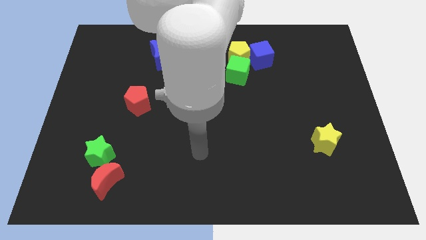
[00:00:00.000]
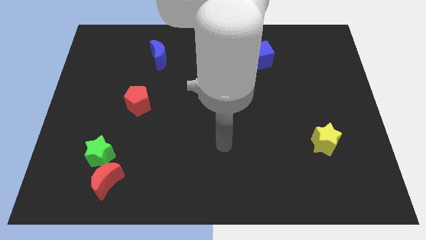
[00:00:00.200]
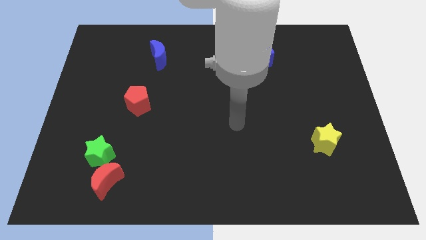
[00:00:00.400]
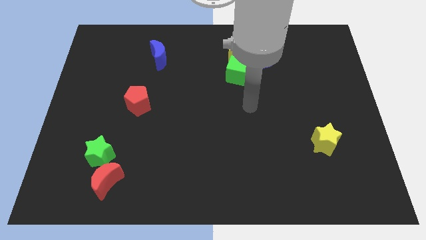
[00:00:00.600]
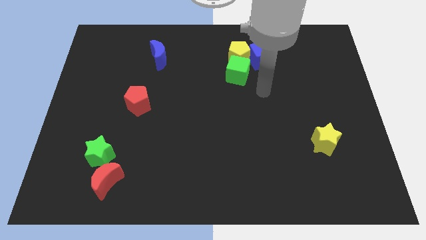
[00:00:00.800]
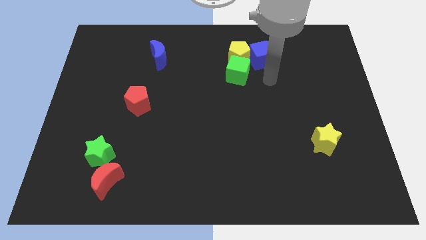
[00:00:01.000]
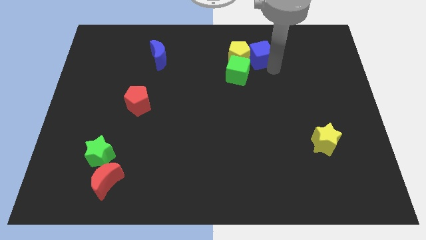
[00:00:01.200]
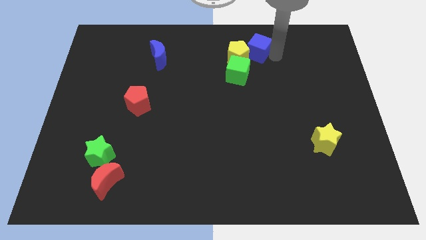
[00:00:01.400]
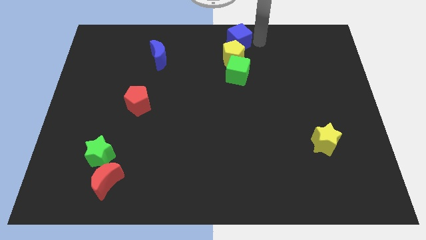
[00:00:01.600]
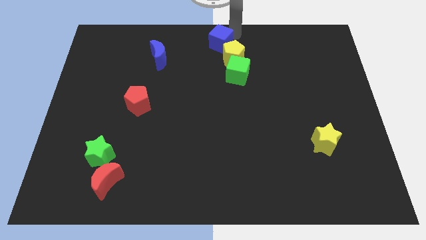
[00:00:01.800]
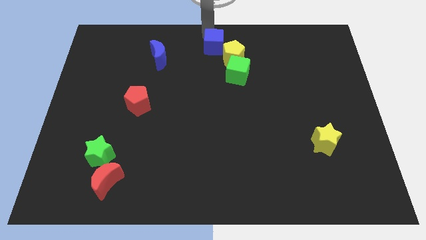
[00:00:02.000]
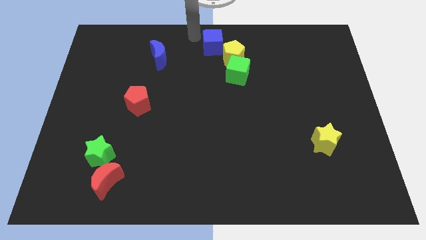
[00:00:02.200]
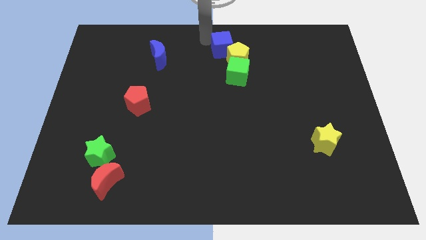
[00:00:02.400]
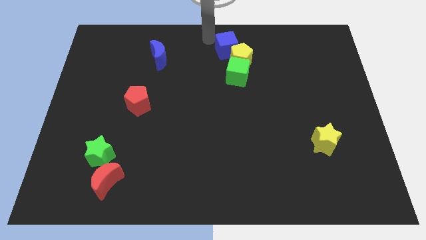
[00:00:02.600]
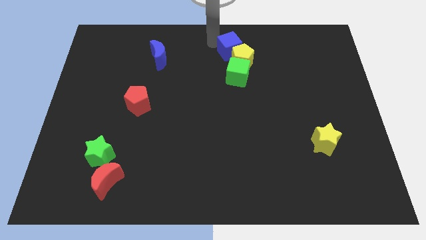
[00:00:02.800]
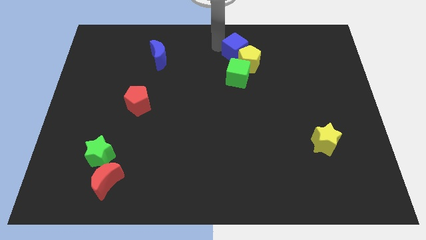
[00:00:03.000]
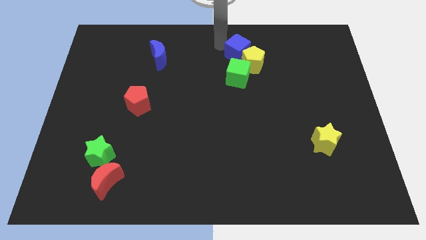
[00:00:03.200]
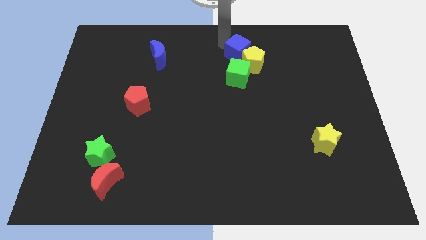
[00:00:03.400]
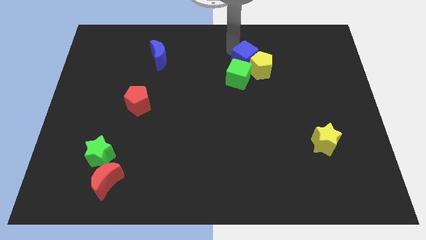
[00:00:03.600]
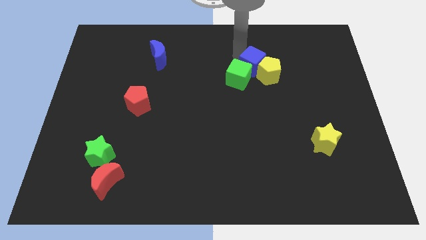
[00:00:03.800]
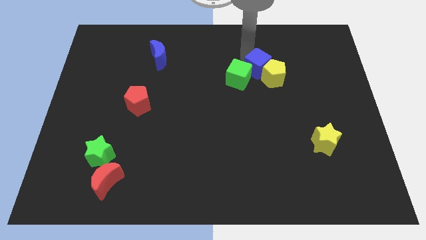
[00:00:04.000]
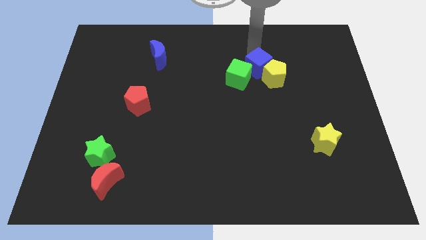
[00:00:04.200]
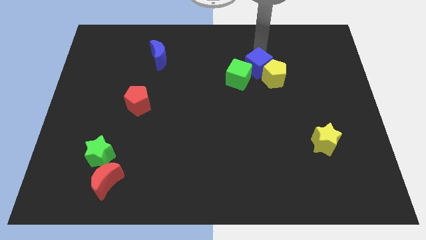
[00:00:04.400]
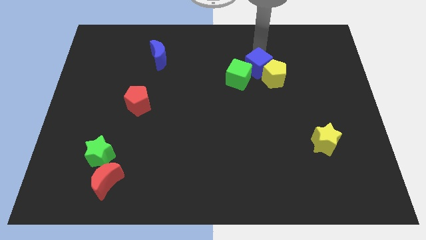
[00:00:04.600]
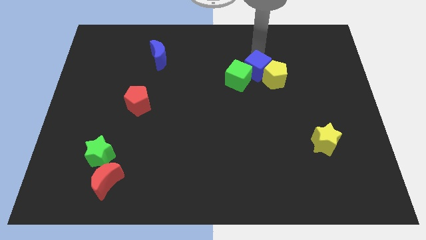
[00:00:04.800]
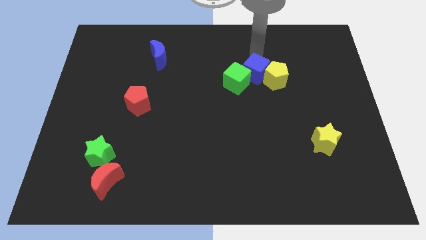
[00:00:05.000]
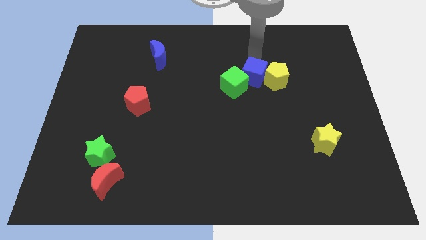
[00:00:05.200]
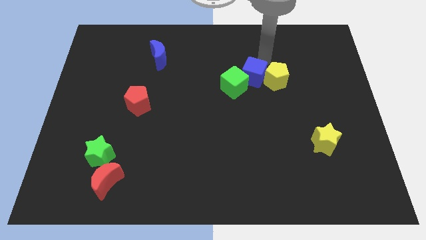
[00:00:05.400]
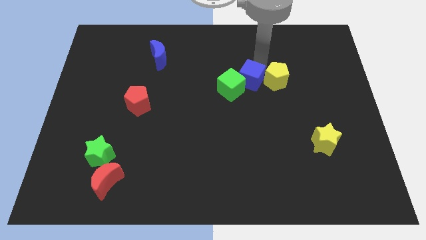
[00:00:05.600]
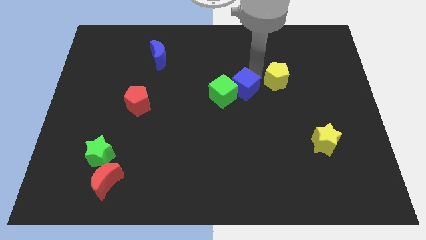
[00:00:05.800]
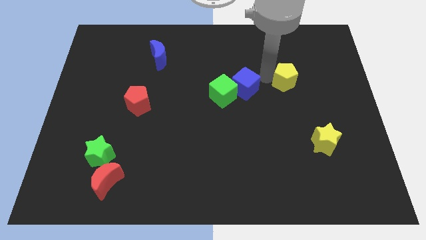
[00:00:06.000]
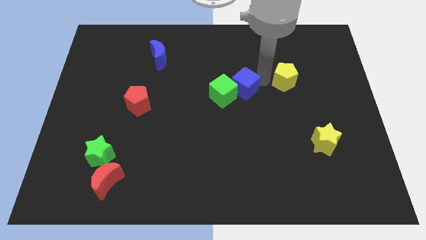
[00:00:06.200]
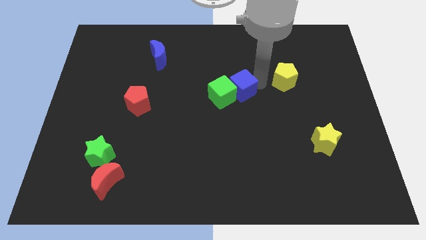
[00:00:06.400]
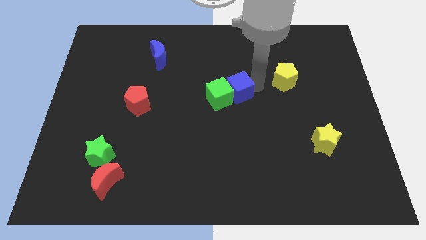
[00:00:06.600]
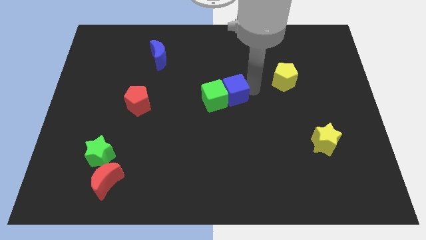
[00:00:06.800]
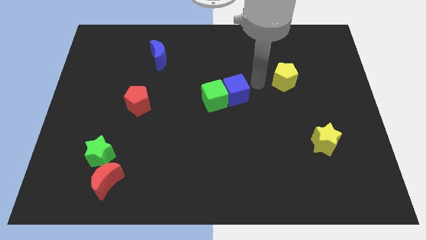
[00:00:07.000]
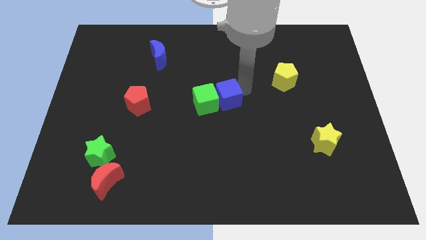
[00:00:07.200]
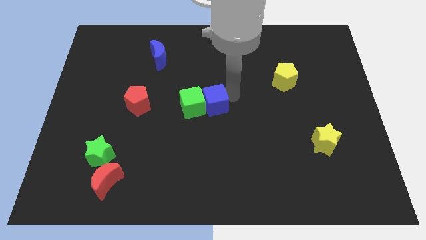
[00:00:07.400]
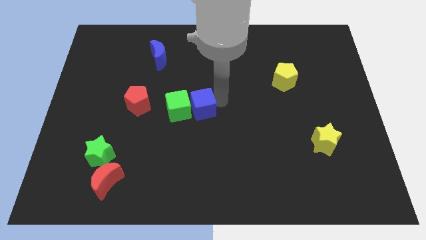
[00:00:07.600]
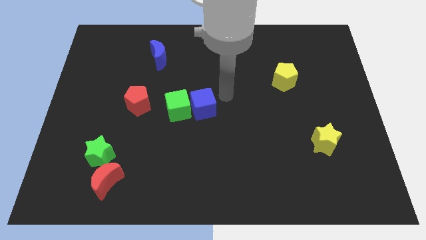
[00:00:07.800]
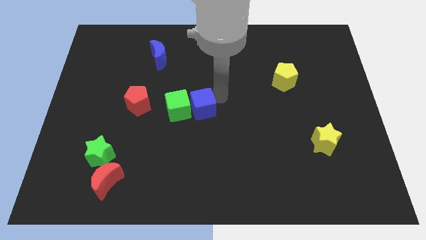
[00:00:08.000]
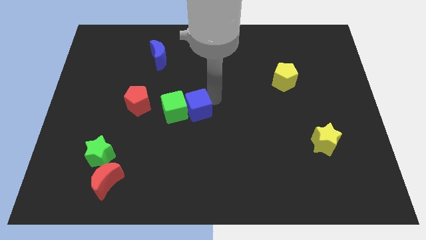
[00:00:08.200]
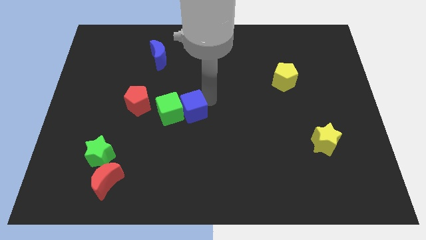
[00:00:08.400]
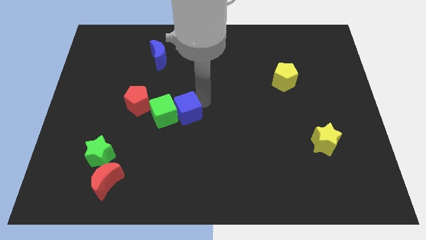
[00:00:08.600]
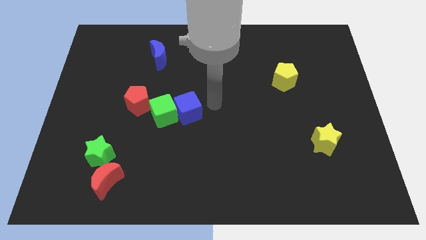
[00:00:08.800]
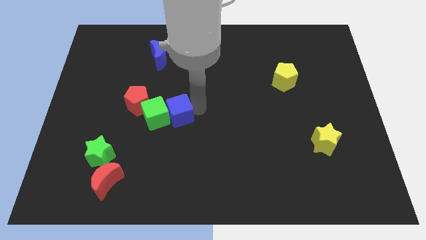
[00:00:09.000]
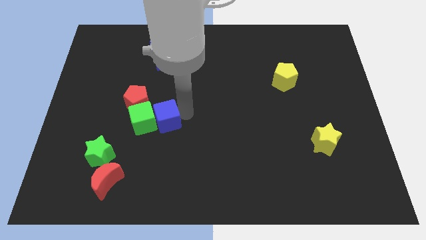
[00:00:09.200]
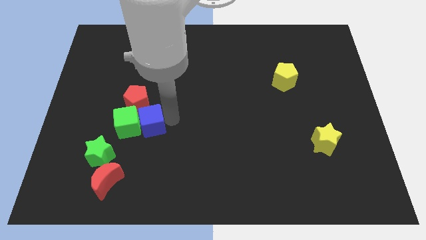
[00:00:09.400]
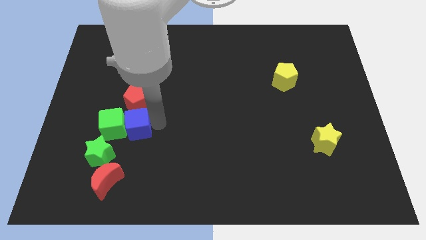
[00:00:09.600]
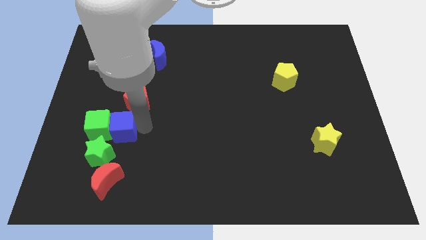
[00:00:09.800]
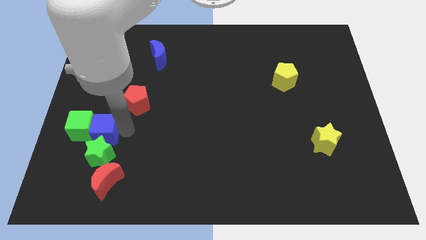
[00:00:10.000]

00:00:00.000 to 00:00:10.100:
put the blue cube diagonally up and to the left of the green star

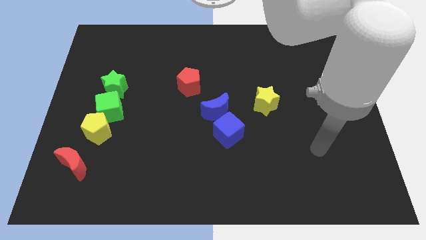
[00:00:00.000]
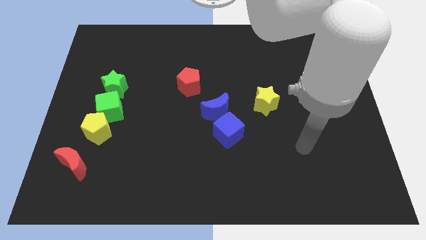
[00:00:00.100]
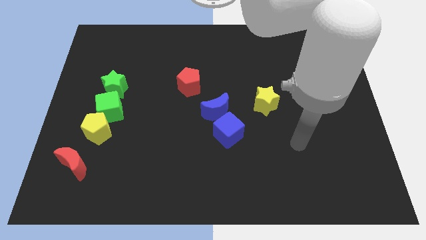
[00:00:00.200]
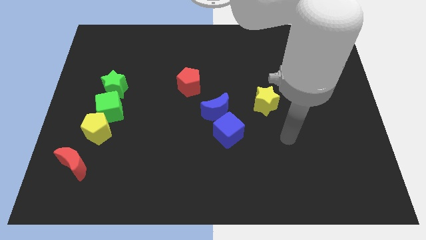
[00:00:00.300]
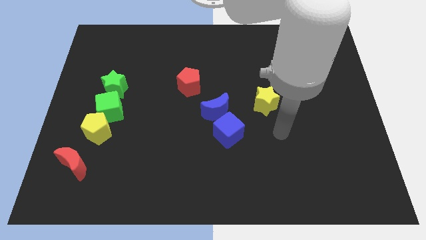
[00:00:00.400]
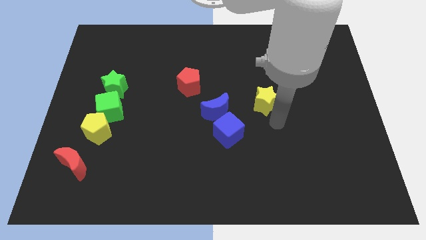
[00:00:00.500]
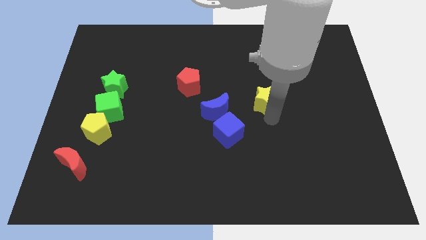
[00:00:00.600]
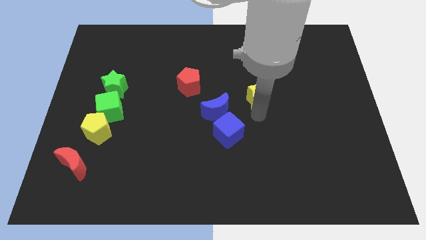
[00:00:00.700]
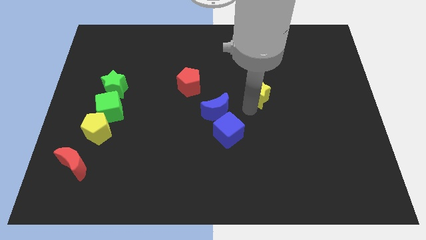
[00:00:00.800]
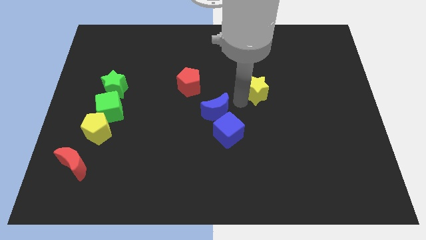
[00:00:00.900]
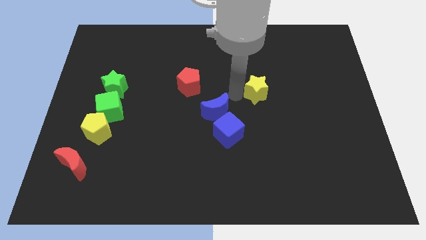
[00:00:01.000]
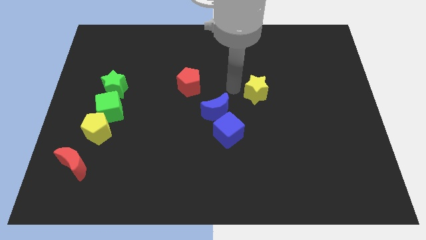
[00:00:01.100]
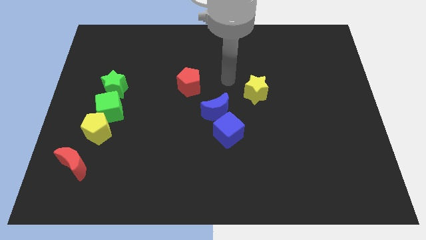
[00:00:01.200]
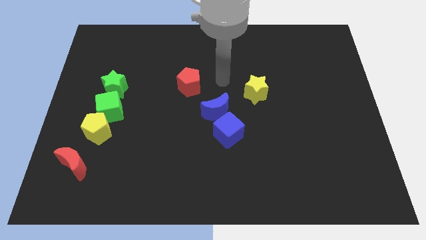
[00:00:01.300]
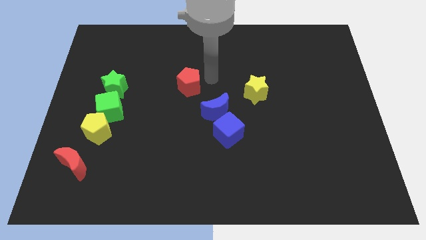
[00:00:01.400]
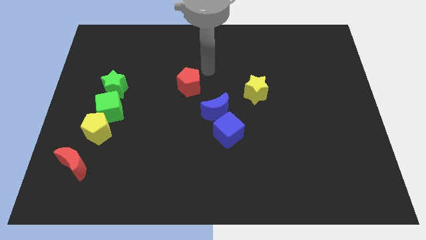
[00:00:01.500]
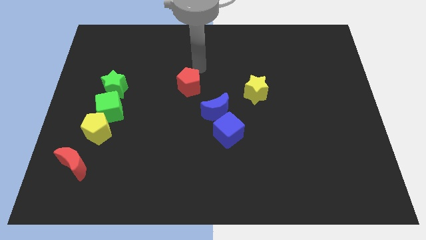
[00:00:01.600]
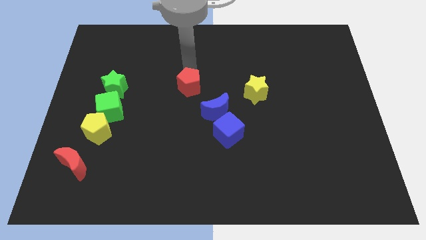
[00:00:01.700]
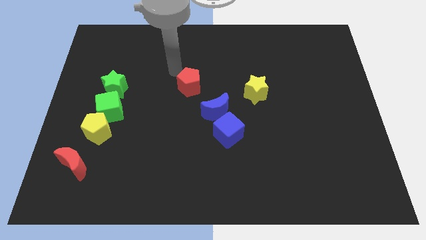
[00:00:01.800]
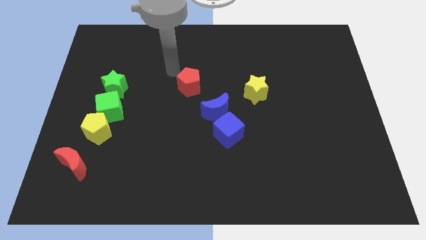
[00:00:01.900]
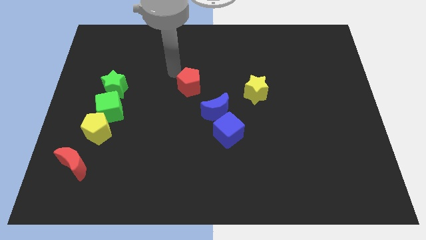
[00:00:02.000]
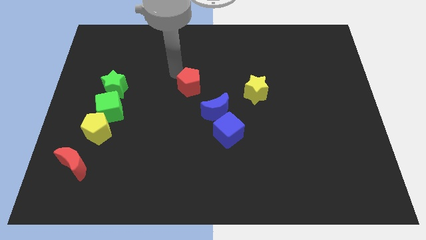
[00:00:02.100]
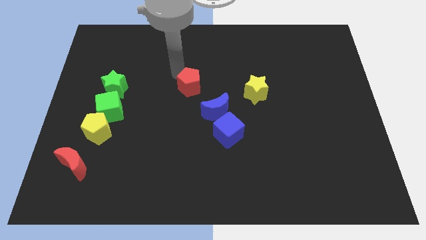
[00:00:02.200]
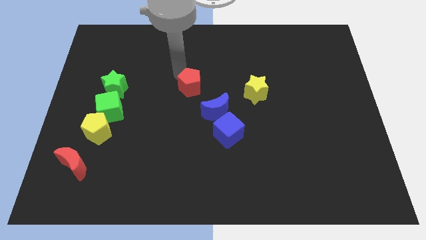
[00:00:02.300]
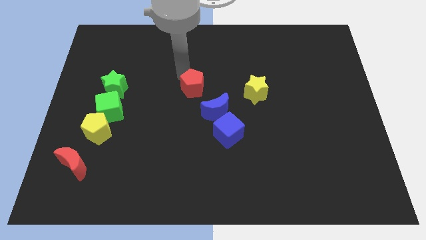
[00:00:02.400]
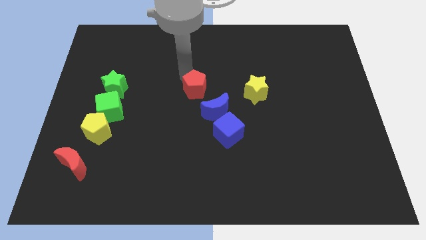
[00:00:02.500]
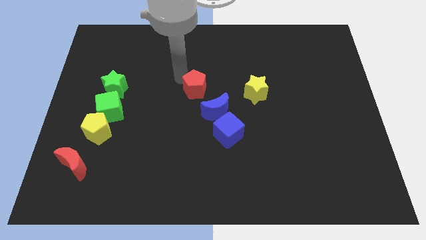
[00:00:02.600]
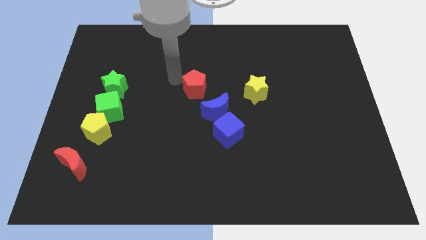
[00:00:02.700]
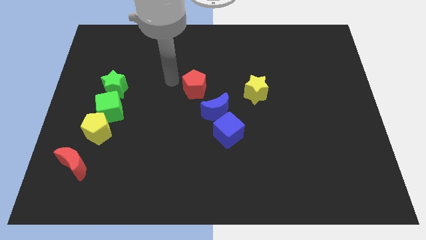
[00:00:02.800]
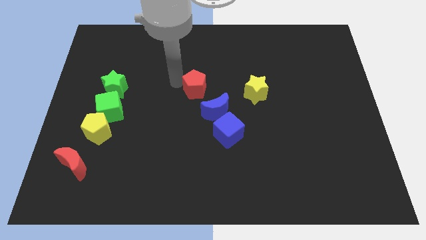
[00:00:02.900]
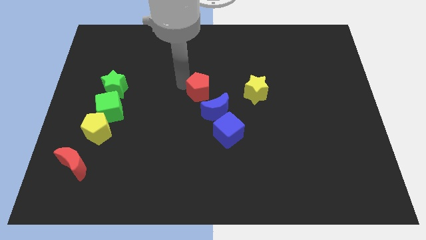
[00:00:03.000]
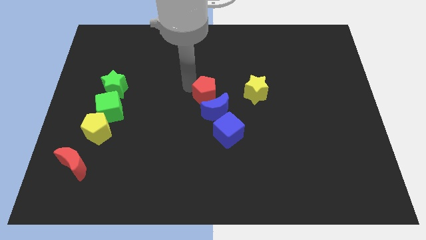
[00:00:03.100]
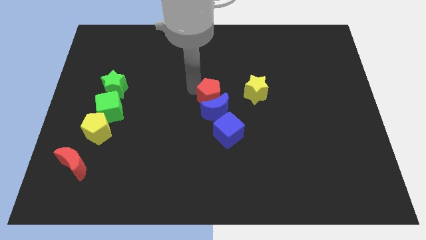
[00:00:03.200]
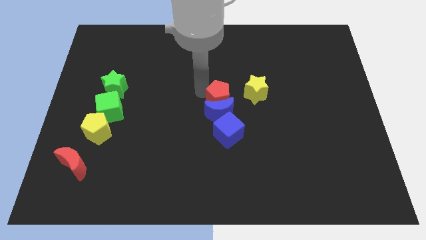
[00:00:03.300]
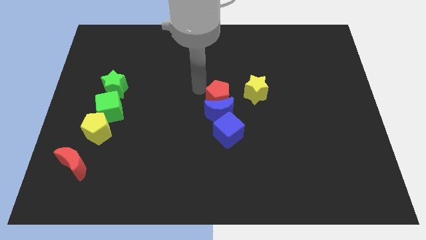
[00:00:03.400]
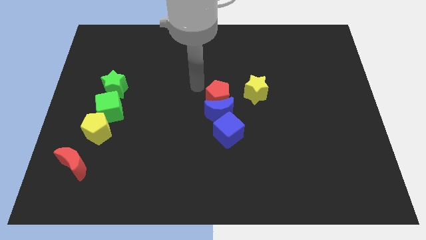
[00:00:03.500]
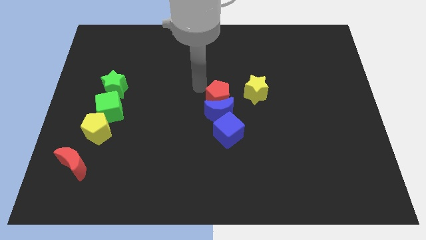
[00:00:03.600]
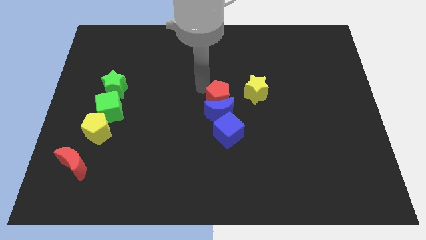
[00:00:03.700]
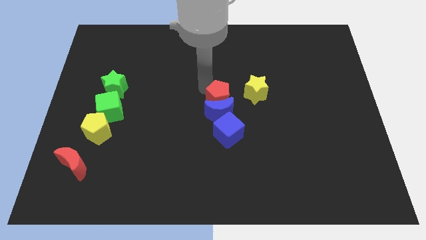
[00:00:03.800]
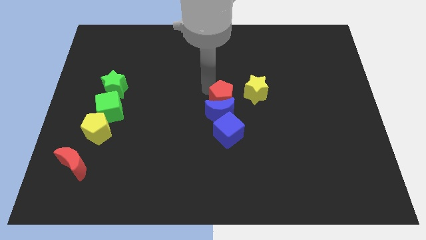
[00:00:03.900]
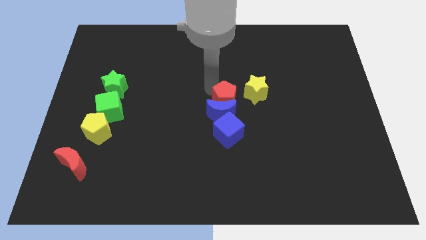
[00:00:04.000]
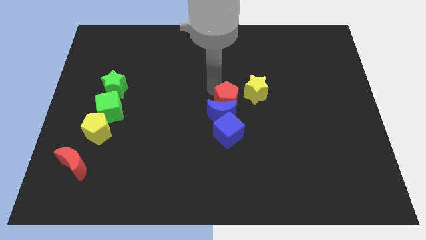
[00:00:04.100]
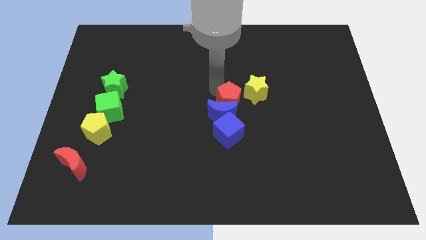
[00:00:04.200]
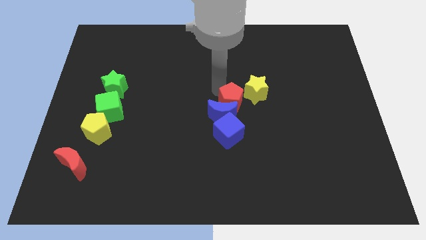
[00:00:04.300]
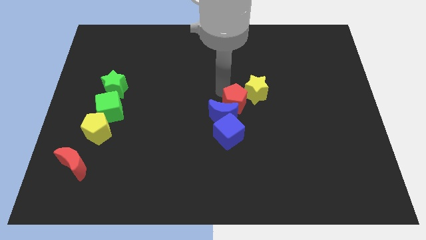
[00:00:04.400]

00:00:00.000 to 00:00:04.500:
slide the red pentagon just right of the blue moon
